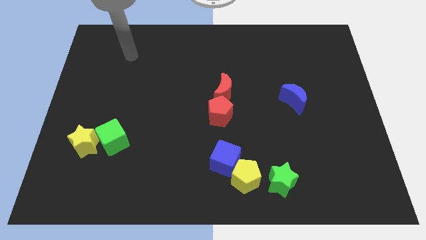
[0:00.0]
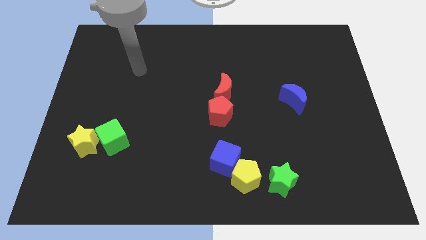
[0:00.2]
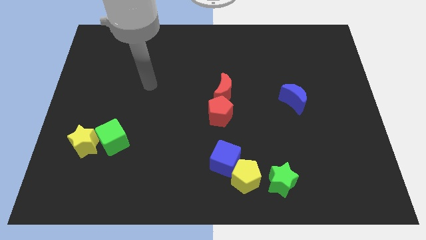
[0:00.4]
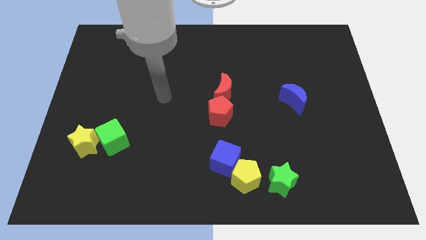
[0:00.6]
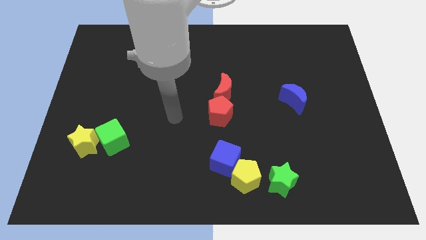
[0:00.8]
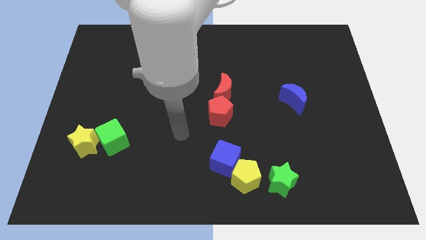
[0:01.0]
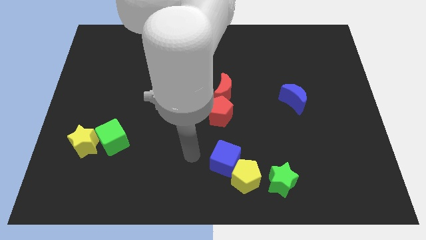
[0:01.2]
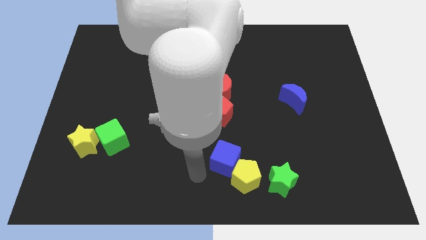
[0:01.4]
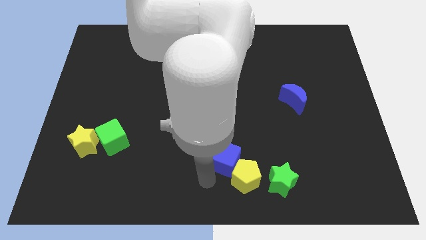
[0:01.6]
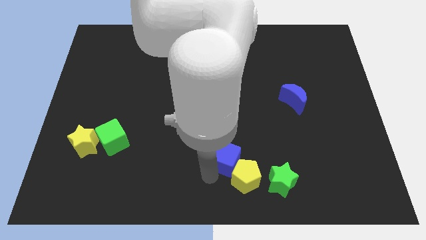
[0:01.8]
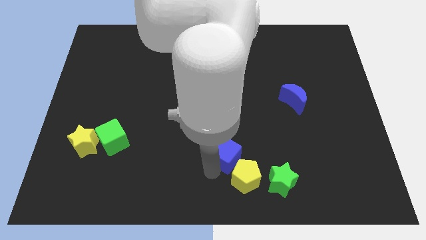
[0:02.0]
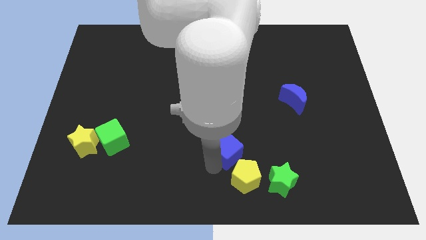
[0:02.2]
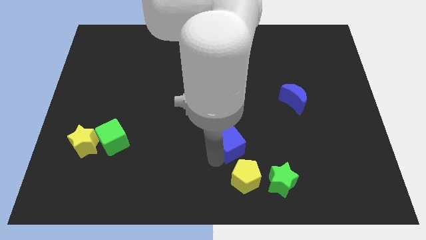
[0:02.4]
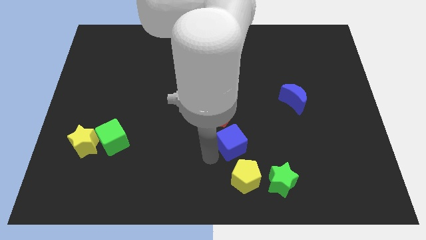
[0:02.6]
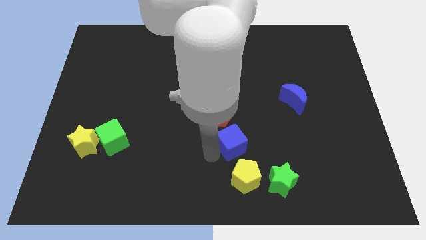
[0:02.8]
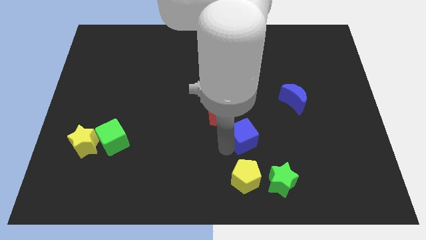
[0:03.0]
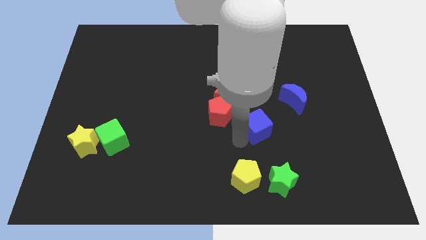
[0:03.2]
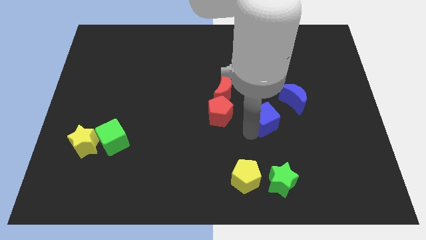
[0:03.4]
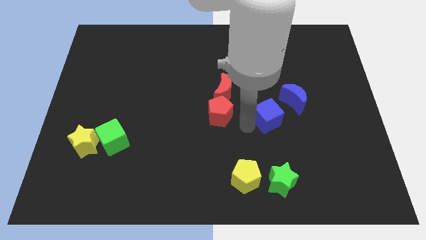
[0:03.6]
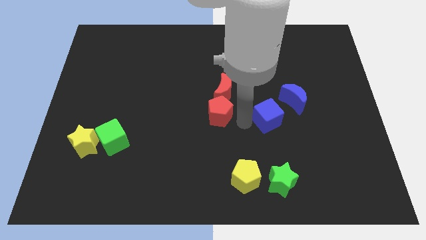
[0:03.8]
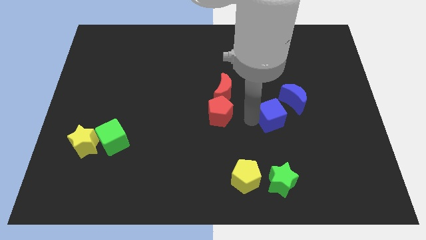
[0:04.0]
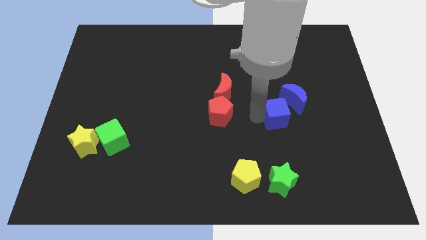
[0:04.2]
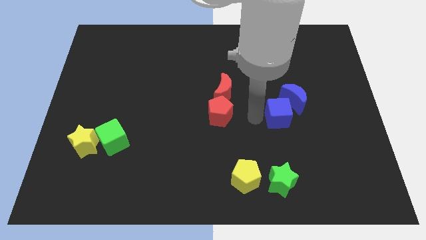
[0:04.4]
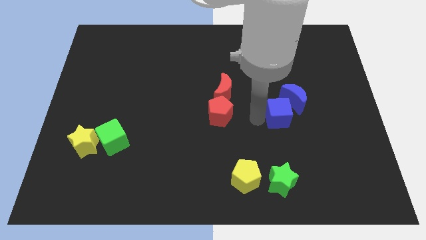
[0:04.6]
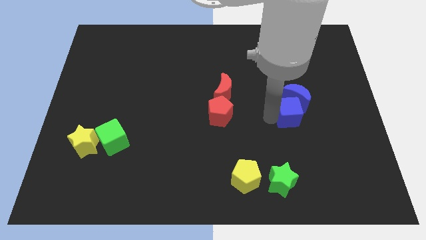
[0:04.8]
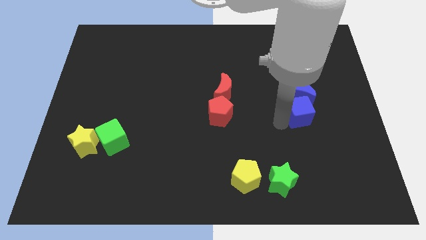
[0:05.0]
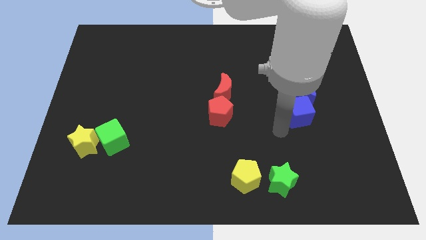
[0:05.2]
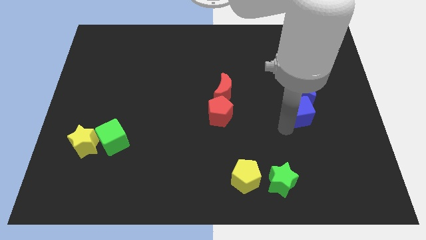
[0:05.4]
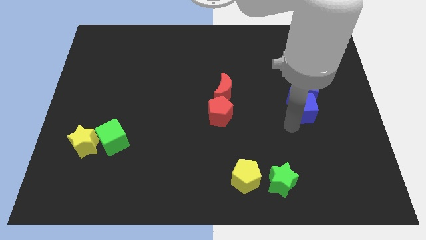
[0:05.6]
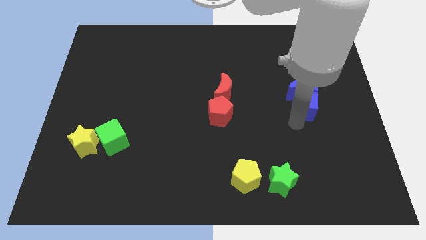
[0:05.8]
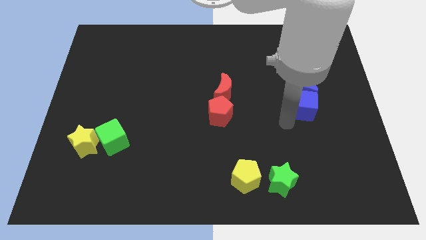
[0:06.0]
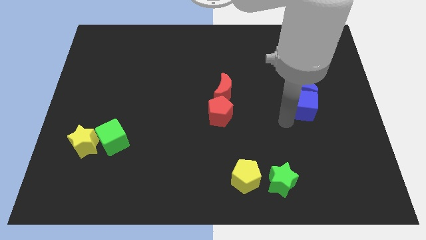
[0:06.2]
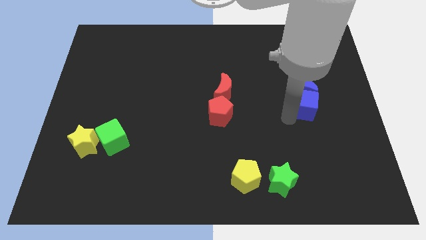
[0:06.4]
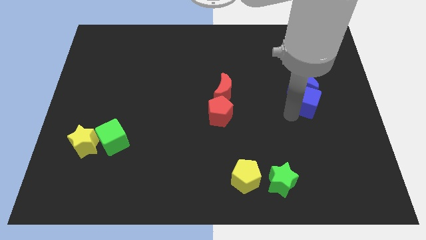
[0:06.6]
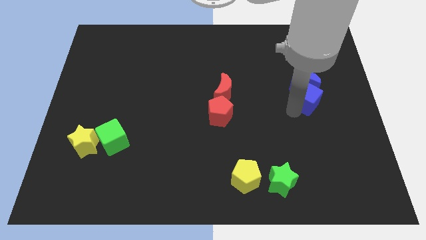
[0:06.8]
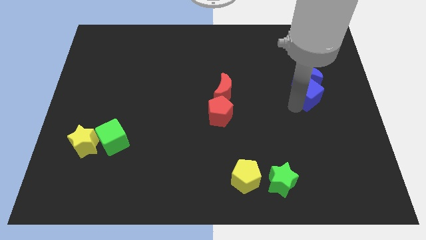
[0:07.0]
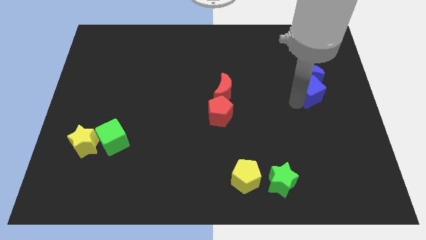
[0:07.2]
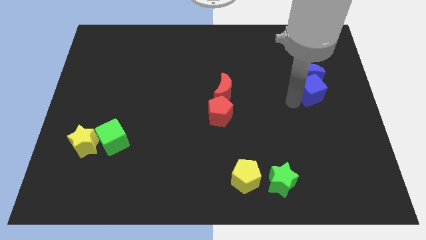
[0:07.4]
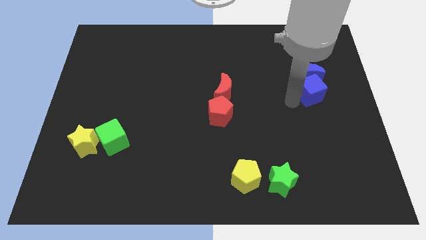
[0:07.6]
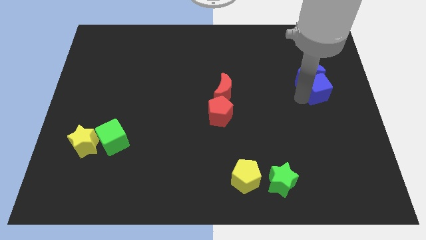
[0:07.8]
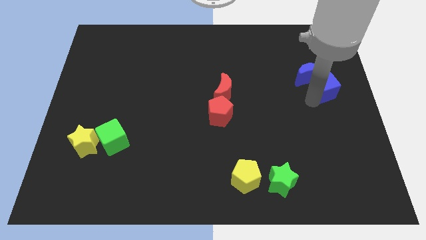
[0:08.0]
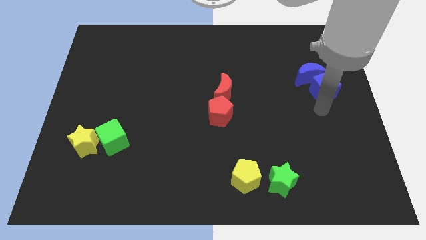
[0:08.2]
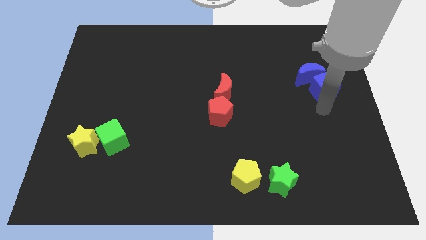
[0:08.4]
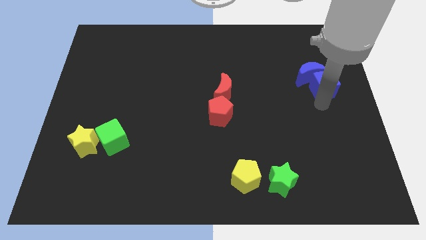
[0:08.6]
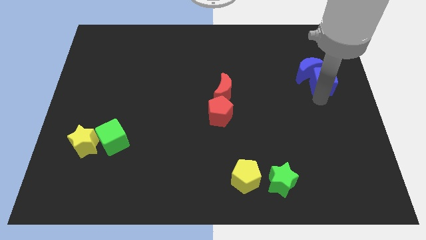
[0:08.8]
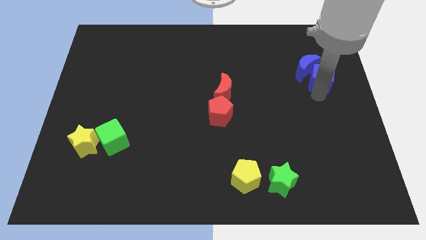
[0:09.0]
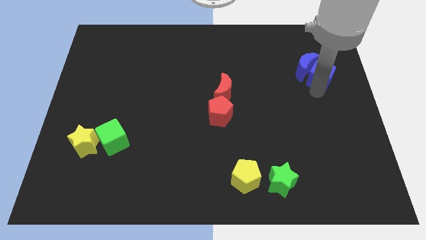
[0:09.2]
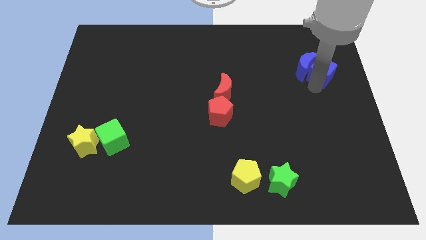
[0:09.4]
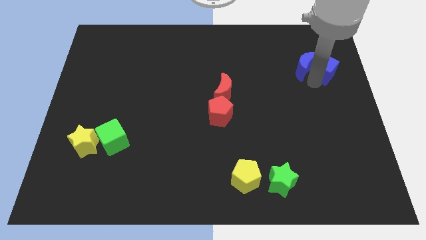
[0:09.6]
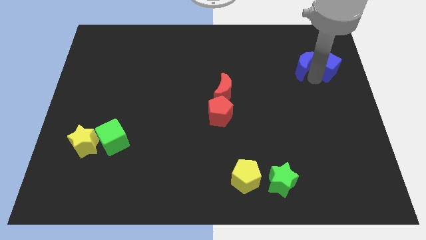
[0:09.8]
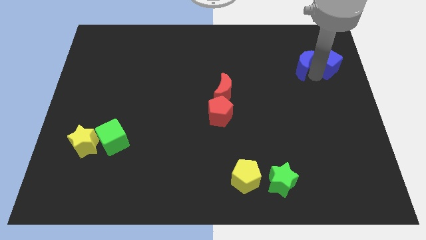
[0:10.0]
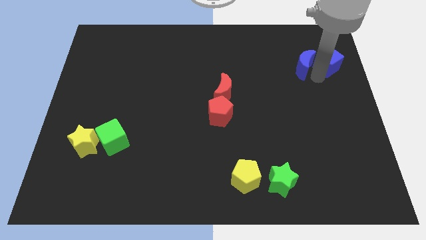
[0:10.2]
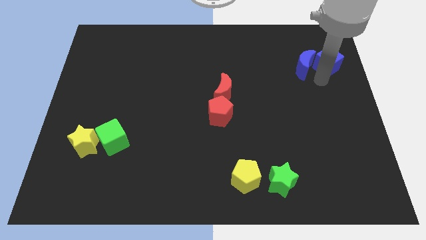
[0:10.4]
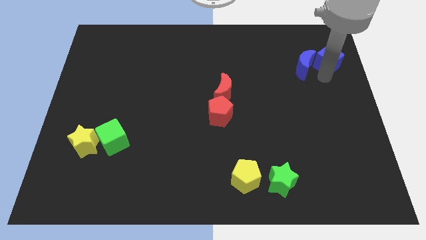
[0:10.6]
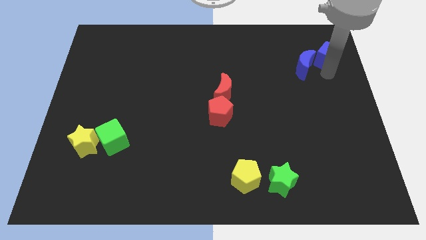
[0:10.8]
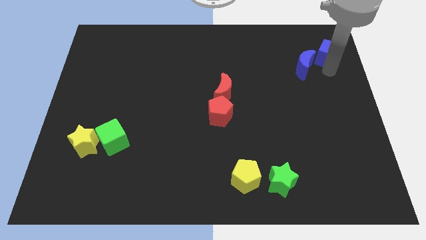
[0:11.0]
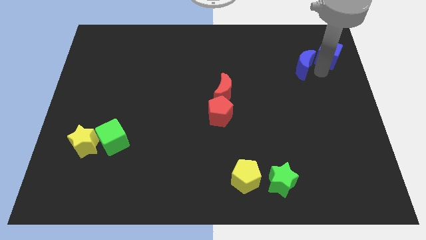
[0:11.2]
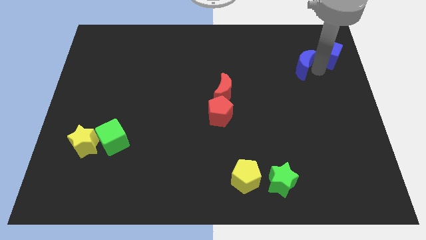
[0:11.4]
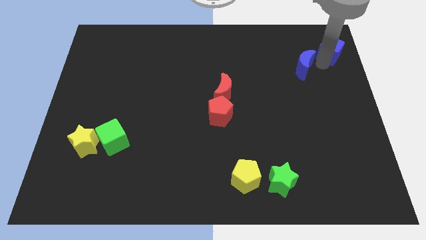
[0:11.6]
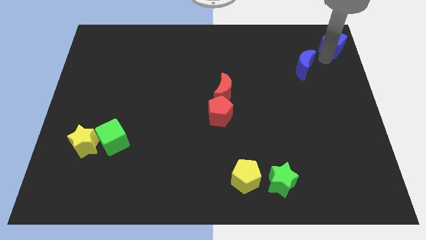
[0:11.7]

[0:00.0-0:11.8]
move the blue cube to the top right corner

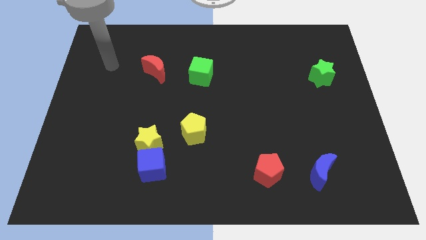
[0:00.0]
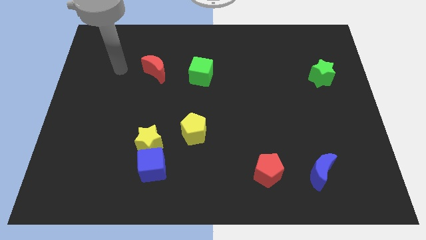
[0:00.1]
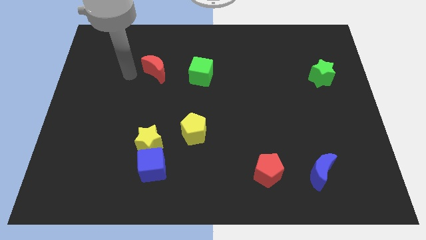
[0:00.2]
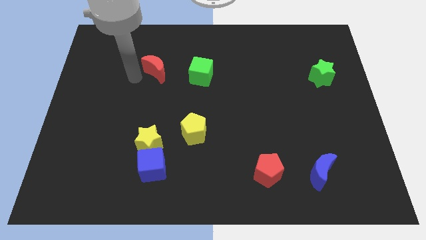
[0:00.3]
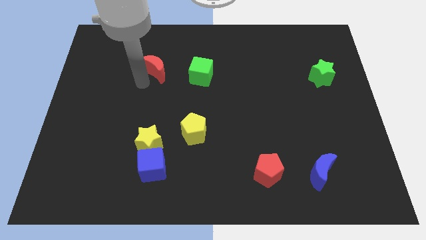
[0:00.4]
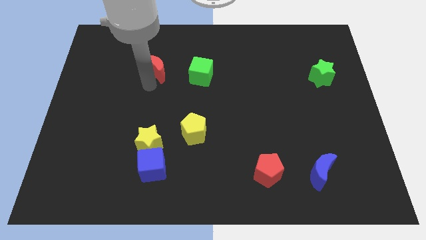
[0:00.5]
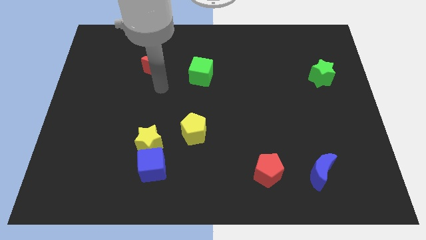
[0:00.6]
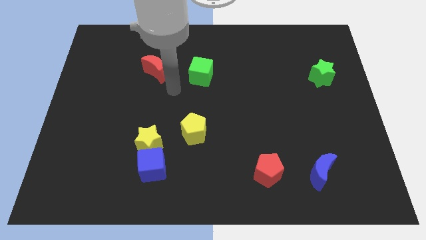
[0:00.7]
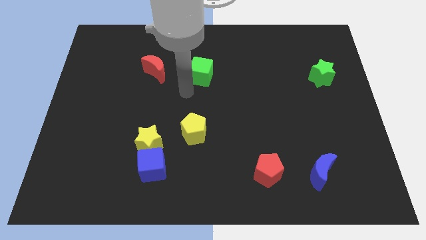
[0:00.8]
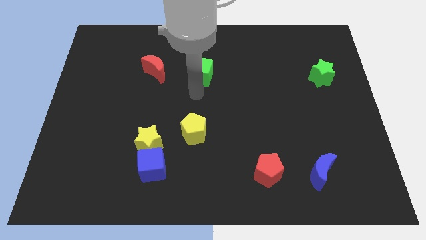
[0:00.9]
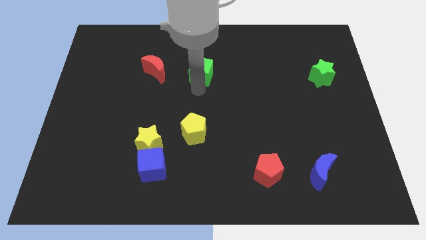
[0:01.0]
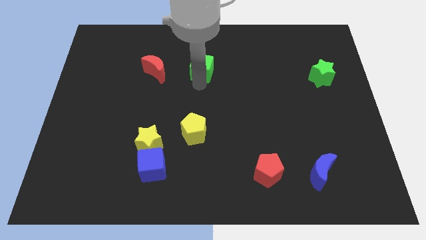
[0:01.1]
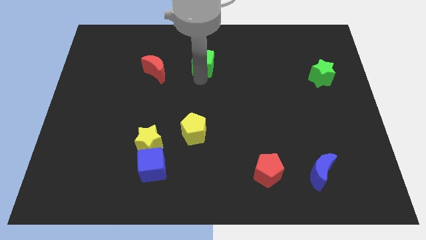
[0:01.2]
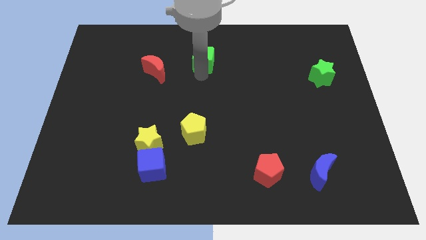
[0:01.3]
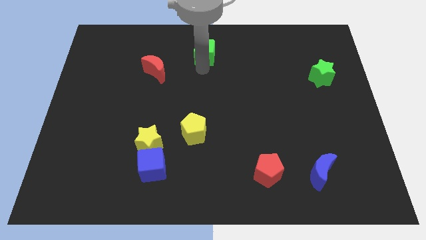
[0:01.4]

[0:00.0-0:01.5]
push the green cube to the top
